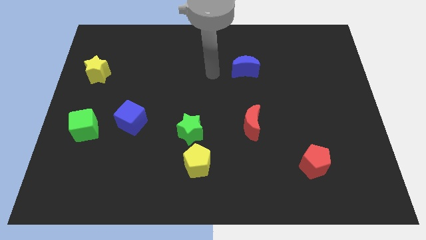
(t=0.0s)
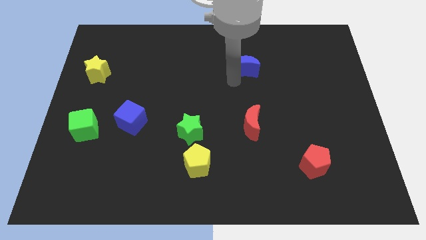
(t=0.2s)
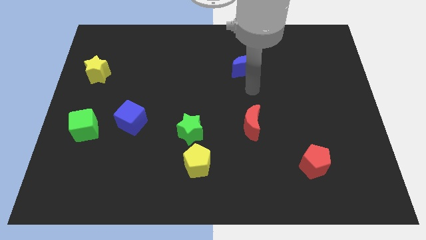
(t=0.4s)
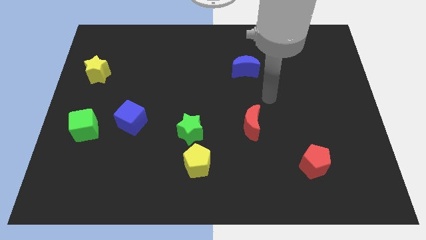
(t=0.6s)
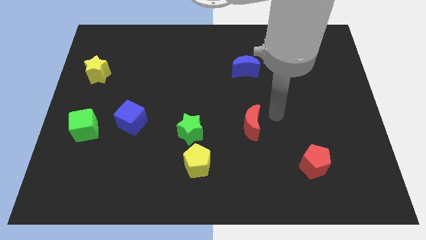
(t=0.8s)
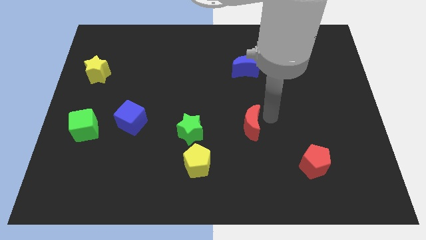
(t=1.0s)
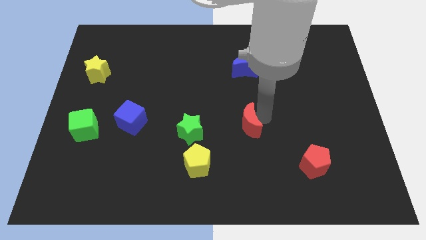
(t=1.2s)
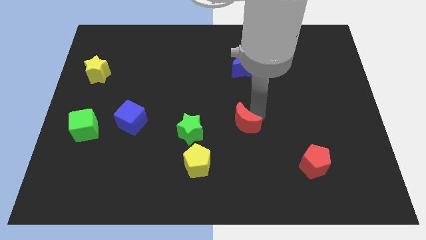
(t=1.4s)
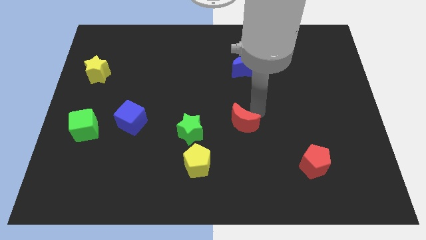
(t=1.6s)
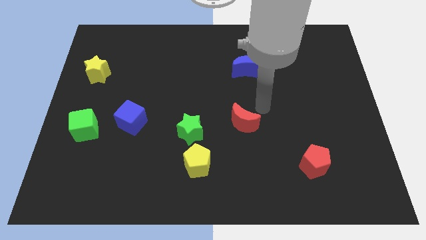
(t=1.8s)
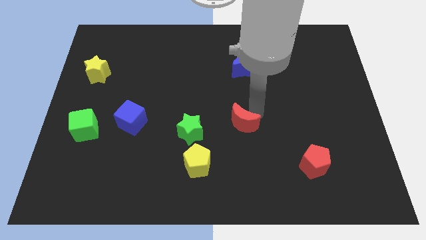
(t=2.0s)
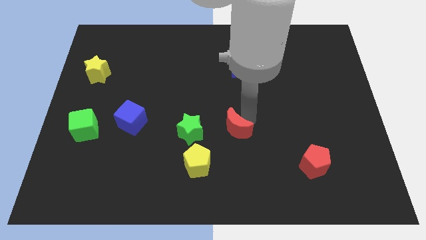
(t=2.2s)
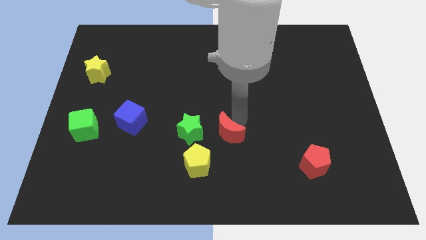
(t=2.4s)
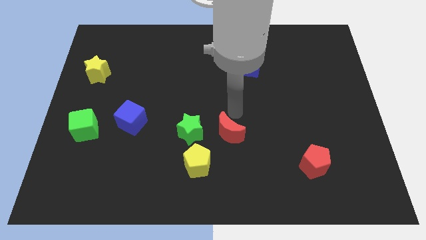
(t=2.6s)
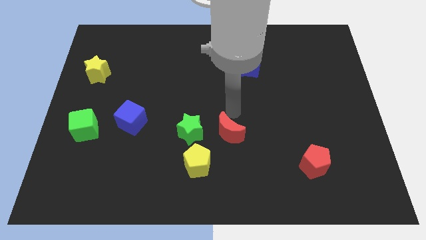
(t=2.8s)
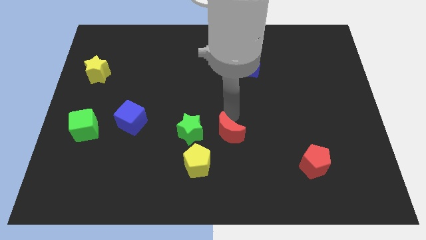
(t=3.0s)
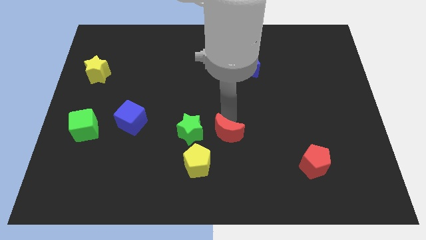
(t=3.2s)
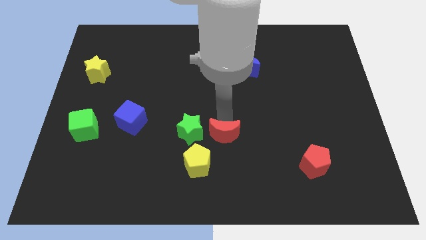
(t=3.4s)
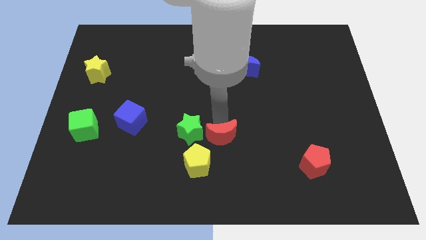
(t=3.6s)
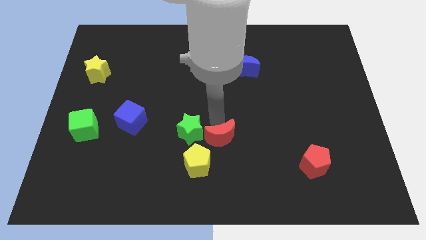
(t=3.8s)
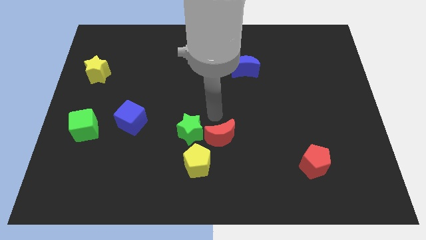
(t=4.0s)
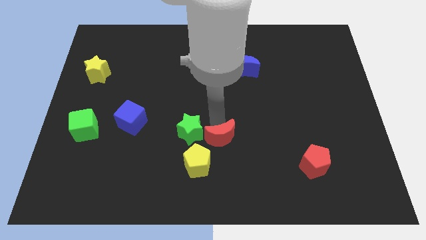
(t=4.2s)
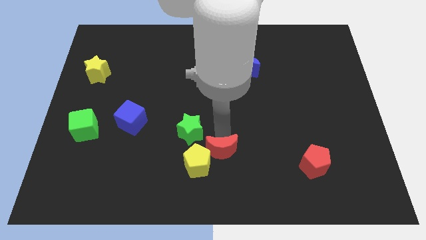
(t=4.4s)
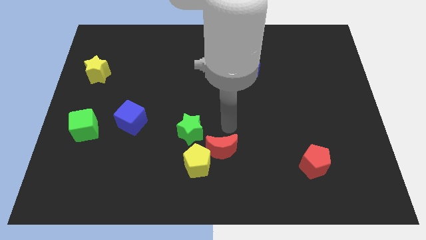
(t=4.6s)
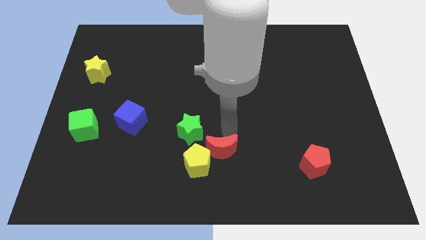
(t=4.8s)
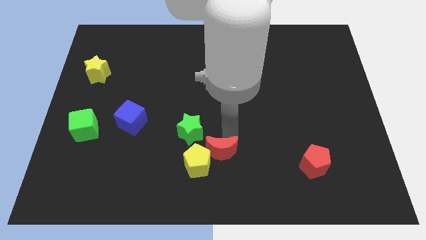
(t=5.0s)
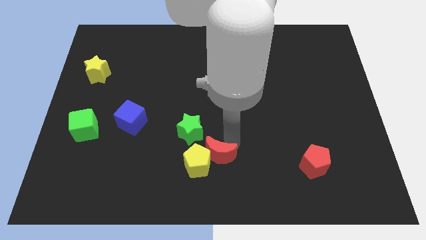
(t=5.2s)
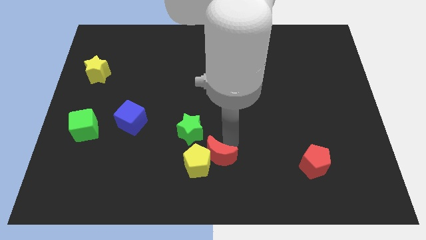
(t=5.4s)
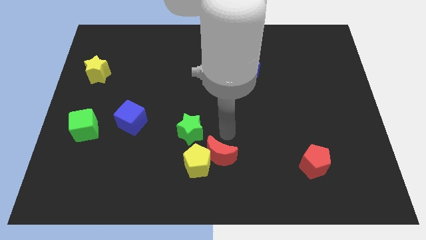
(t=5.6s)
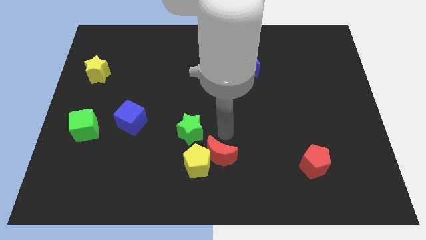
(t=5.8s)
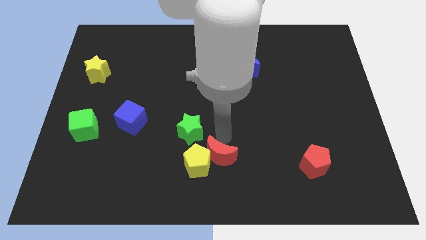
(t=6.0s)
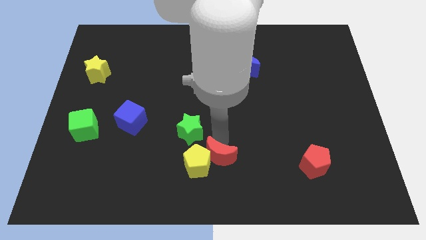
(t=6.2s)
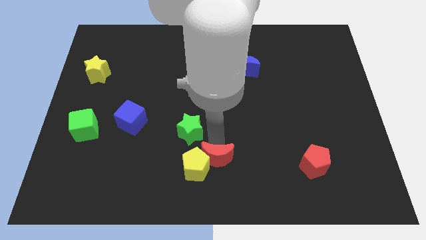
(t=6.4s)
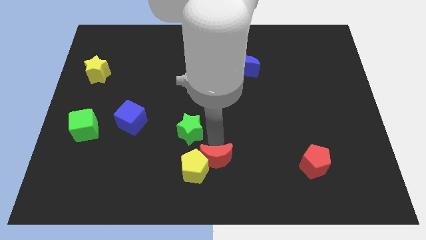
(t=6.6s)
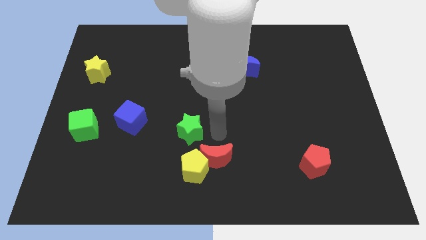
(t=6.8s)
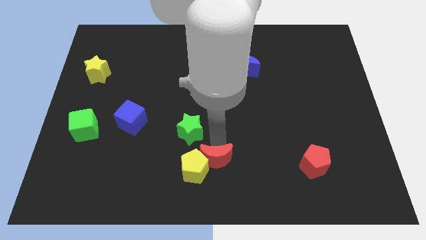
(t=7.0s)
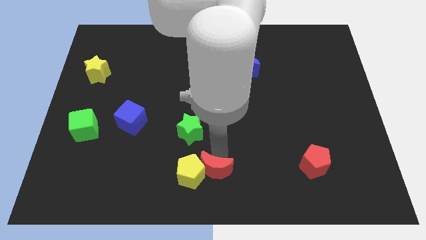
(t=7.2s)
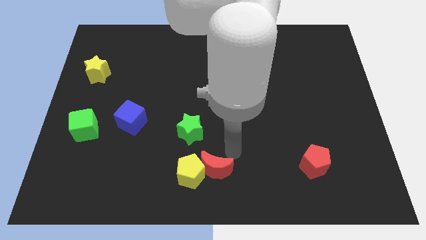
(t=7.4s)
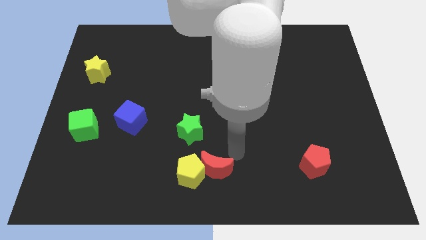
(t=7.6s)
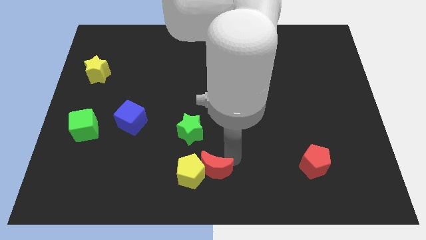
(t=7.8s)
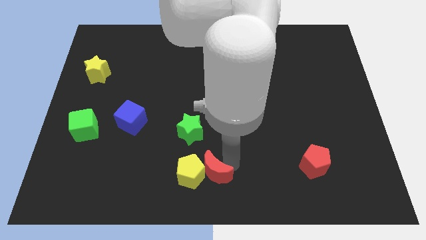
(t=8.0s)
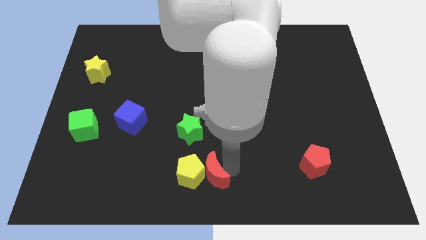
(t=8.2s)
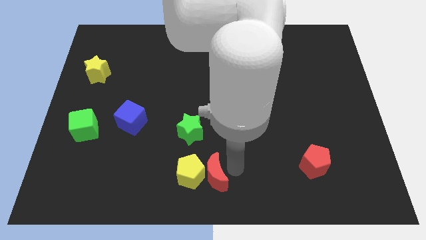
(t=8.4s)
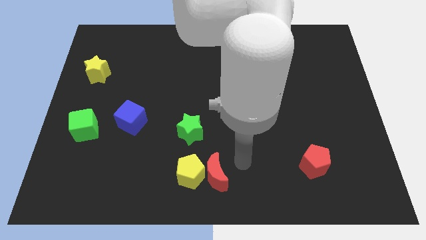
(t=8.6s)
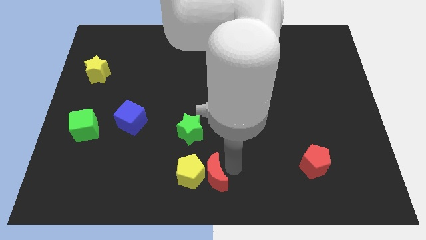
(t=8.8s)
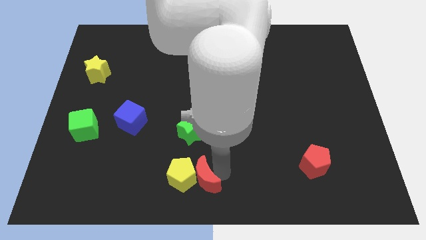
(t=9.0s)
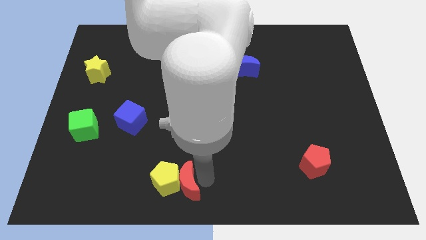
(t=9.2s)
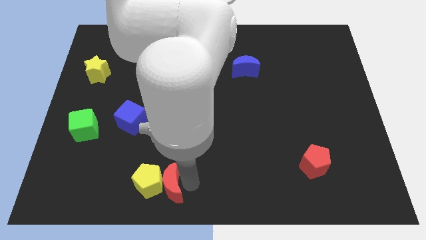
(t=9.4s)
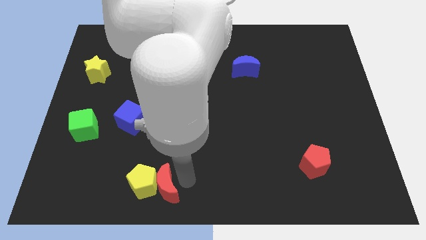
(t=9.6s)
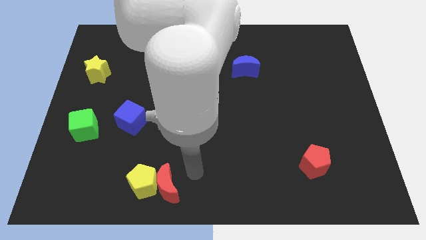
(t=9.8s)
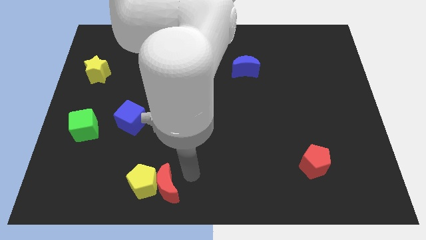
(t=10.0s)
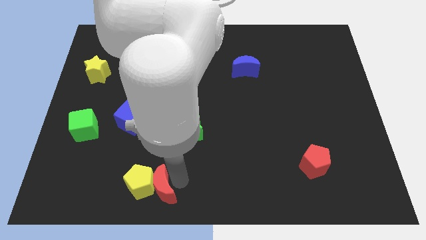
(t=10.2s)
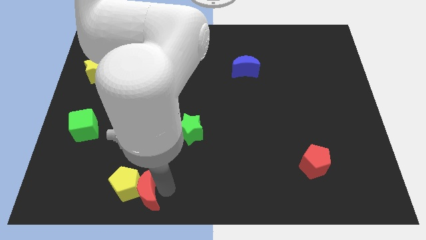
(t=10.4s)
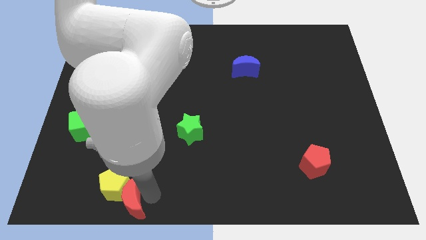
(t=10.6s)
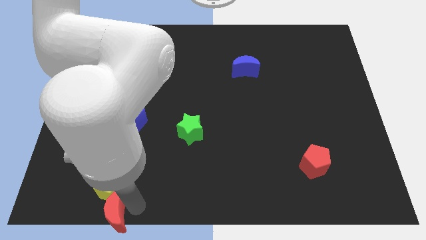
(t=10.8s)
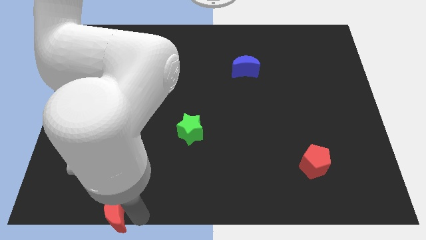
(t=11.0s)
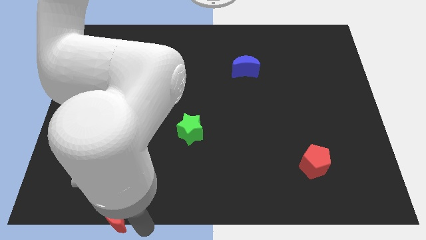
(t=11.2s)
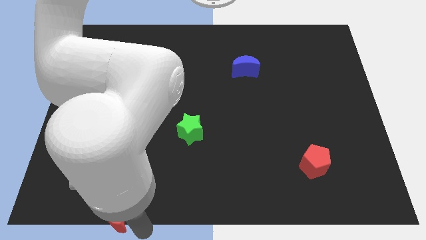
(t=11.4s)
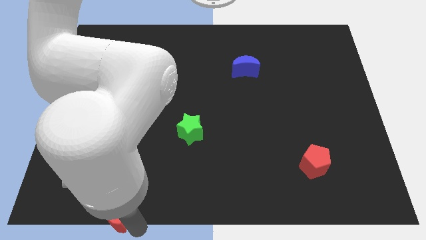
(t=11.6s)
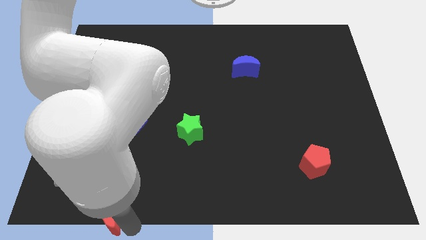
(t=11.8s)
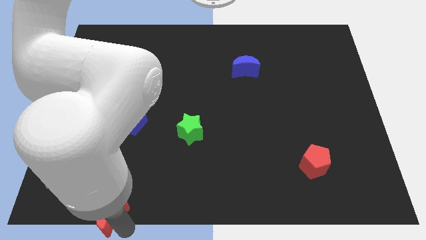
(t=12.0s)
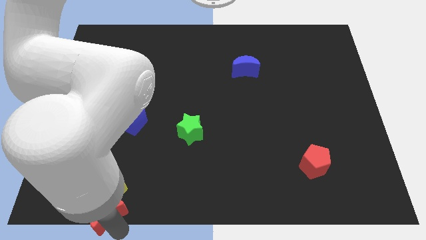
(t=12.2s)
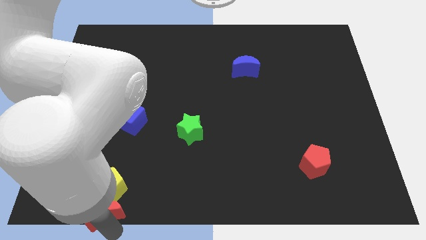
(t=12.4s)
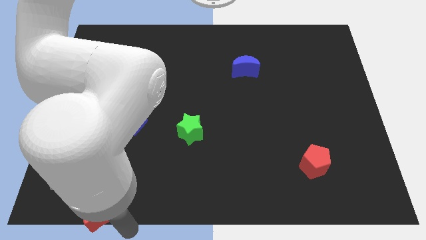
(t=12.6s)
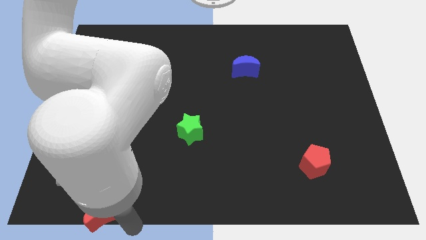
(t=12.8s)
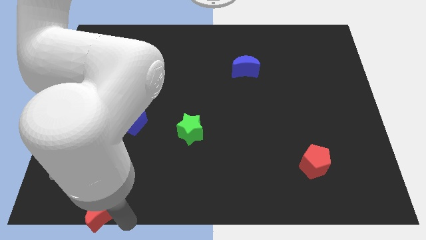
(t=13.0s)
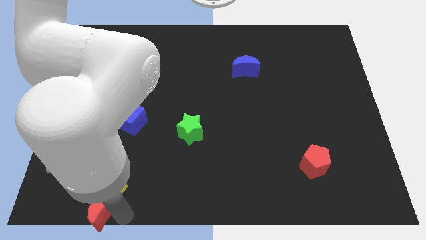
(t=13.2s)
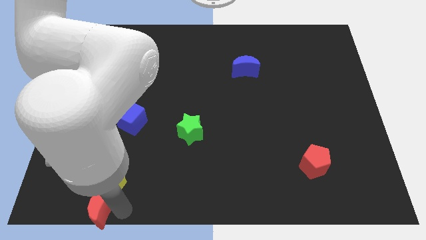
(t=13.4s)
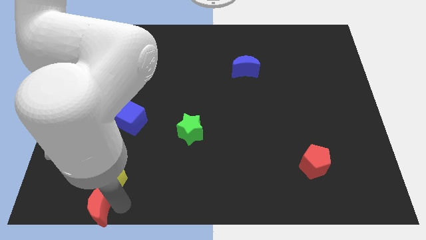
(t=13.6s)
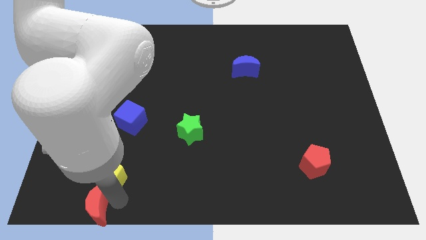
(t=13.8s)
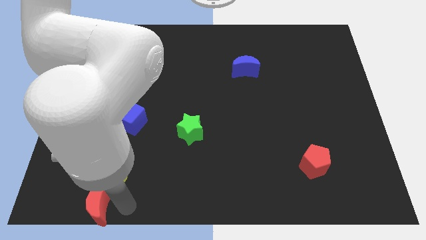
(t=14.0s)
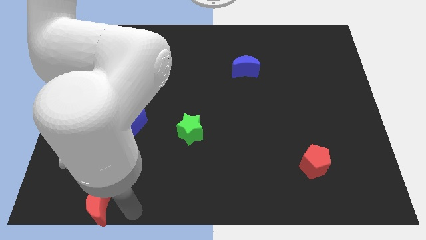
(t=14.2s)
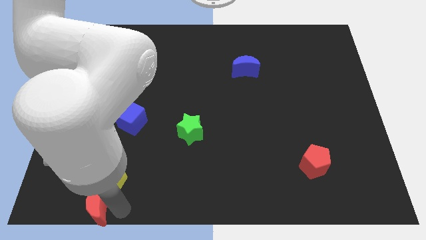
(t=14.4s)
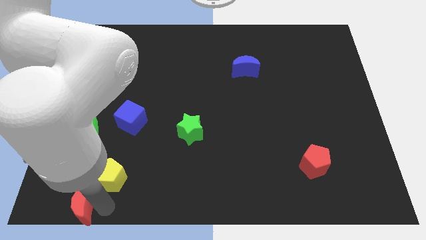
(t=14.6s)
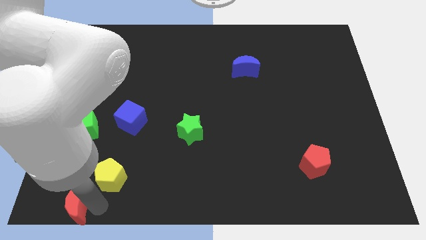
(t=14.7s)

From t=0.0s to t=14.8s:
put the red moon to the bottom left
